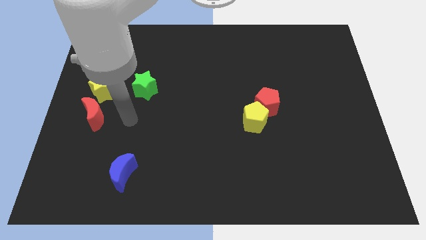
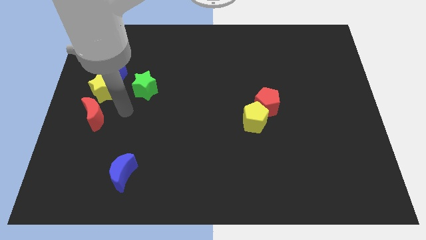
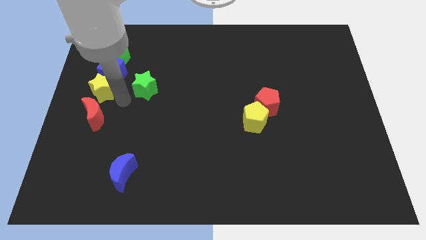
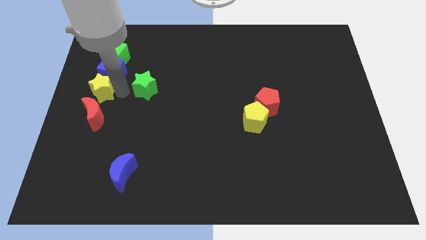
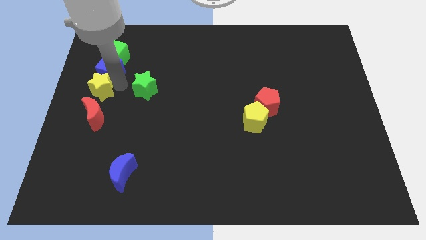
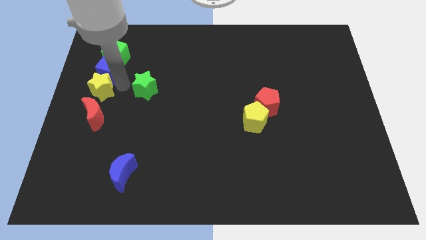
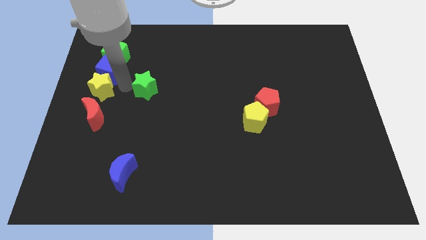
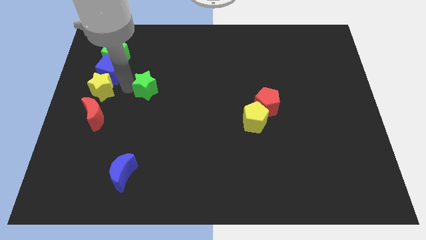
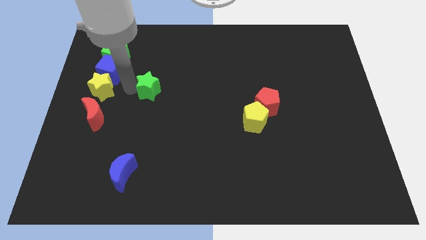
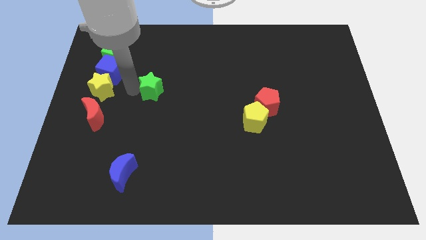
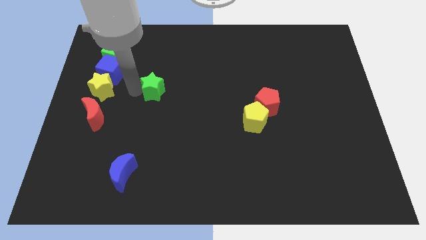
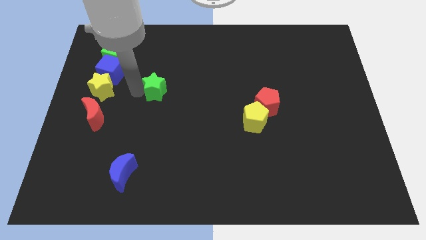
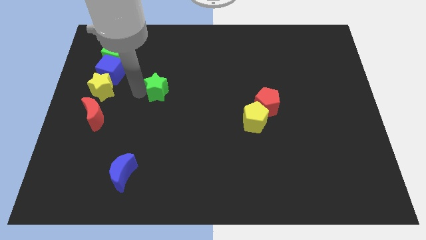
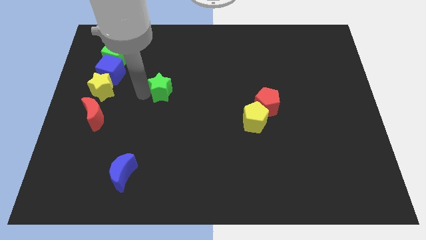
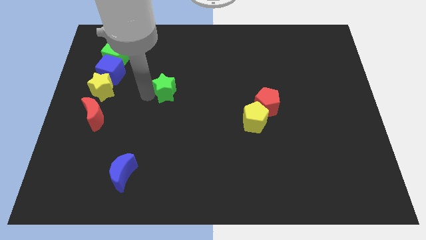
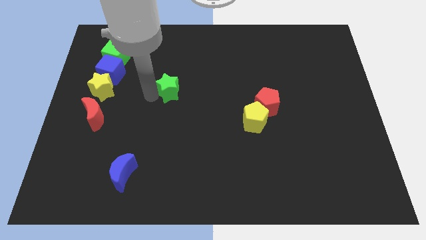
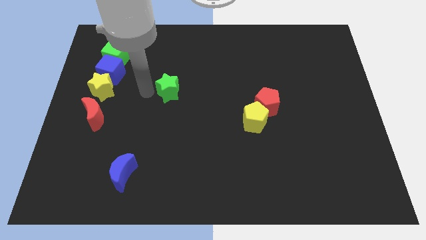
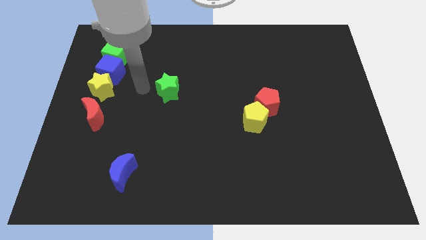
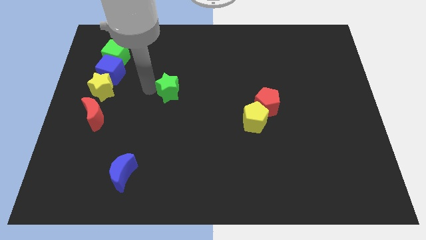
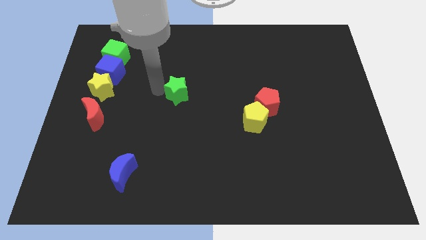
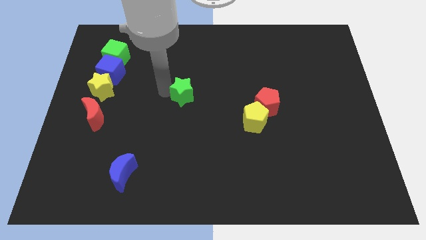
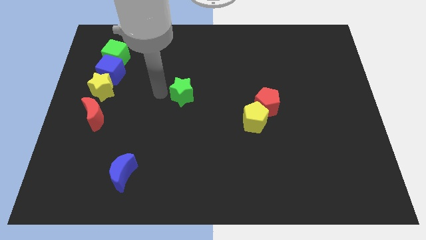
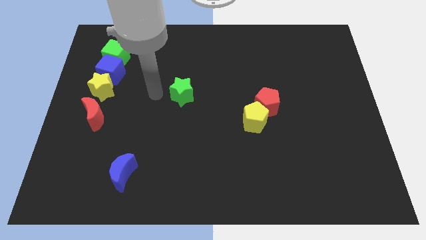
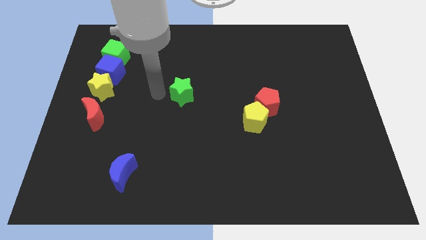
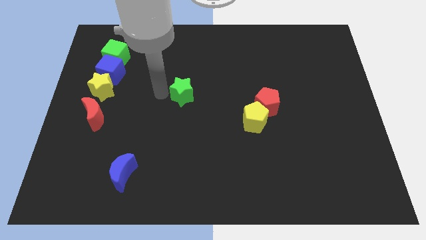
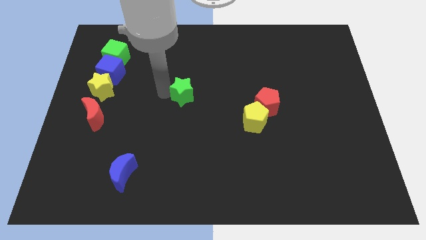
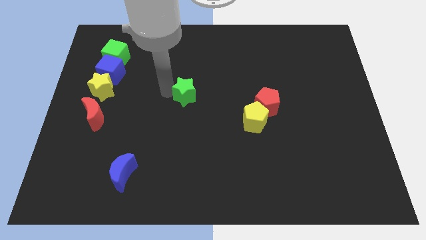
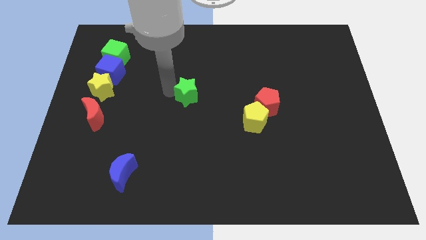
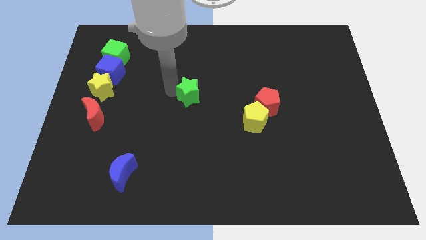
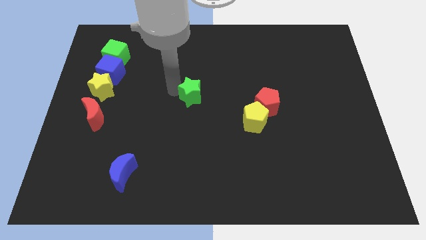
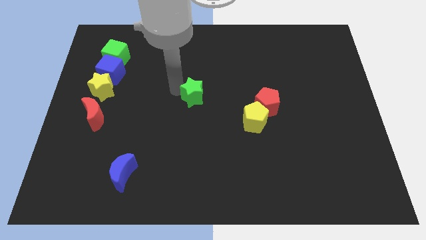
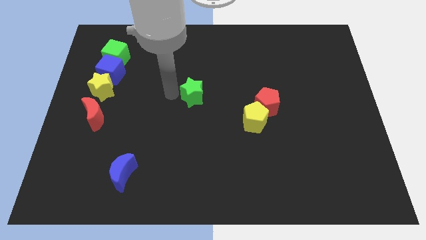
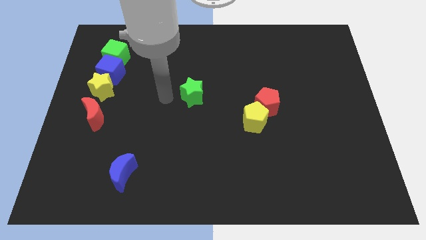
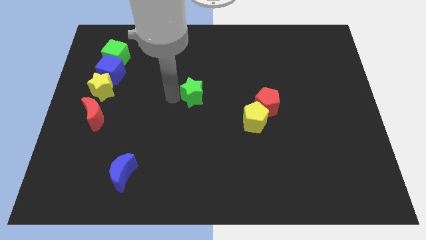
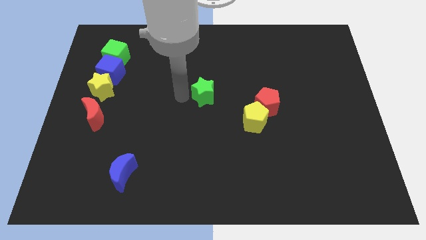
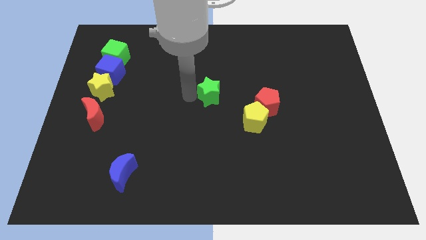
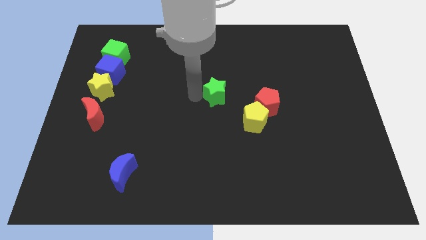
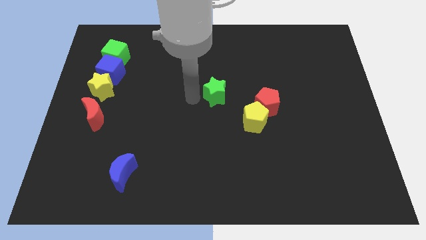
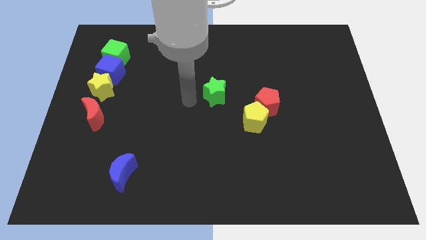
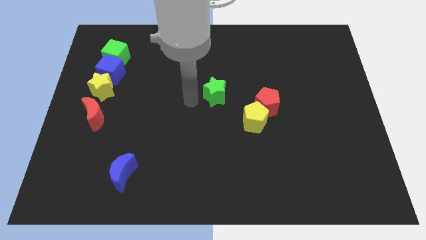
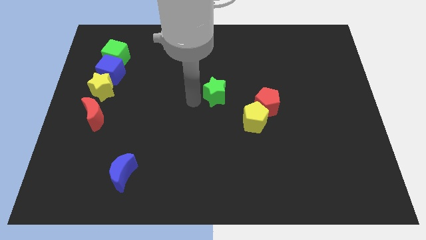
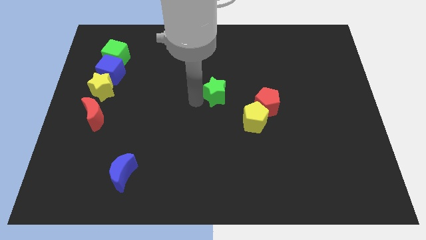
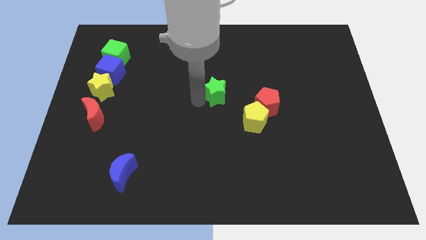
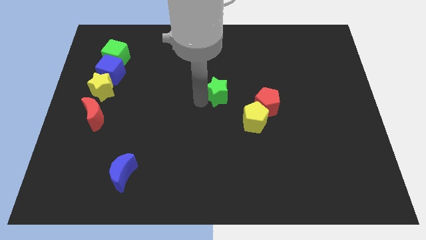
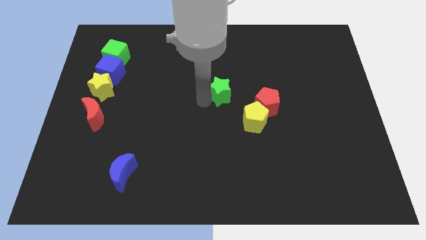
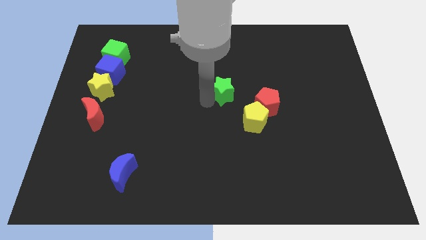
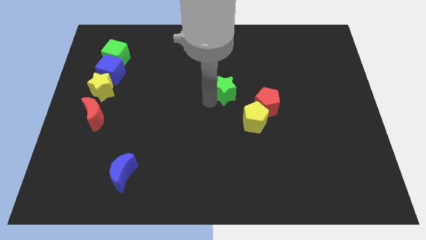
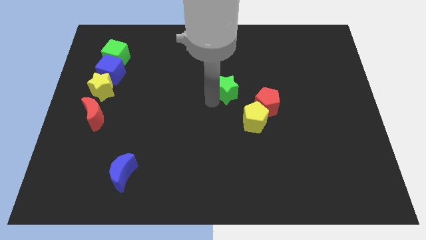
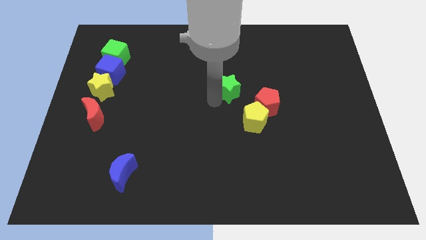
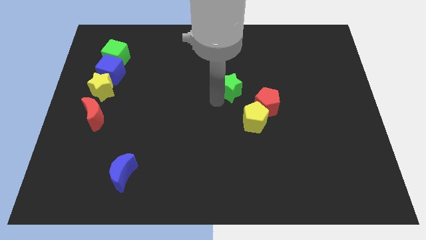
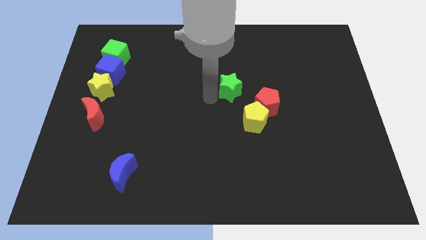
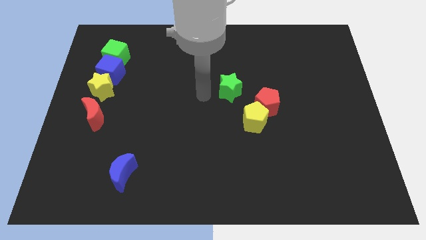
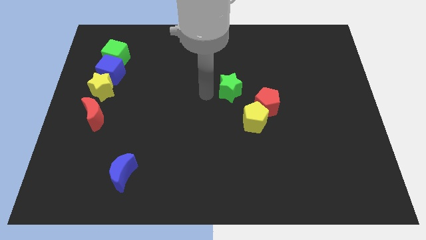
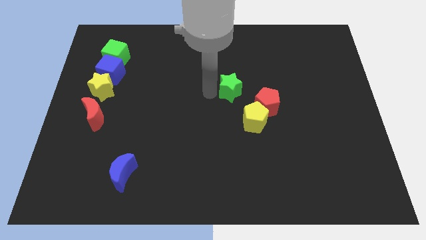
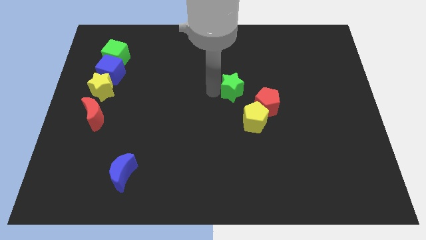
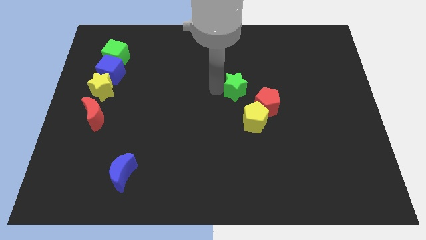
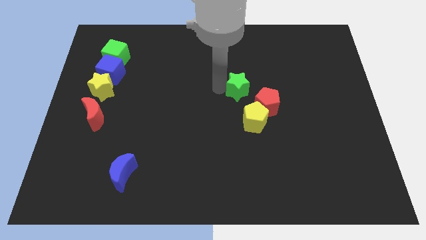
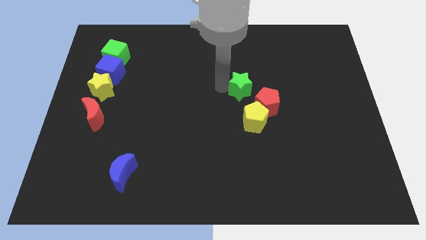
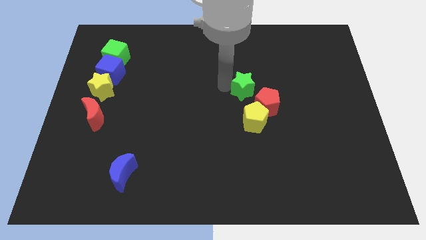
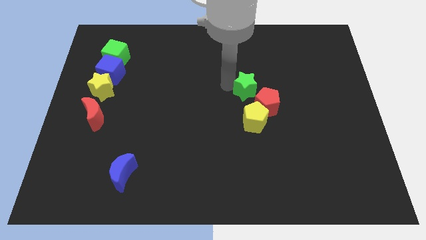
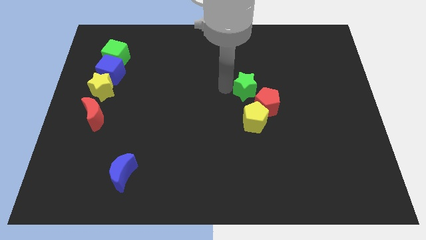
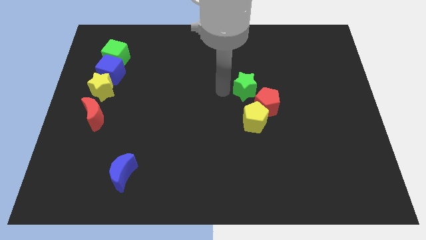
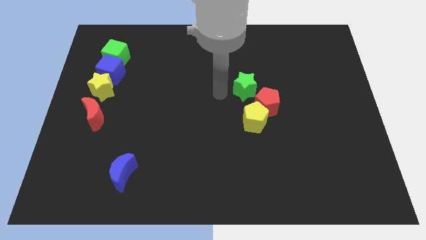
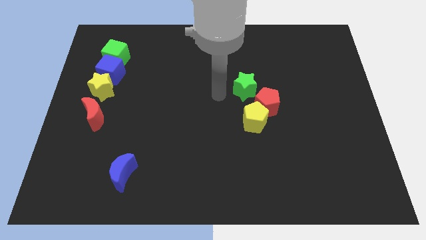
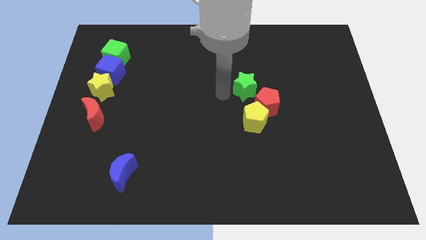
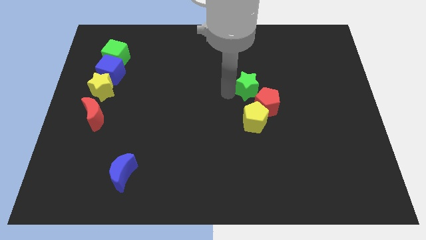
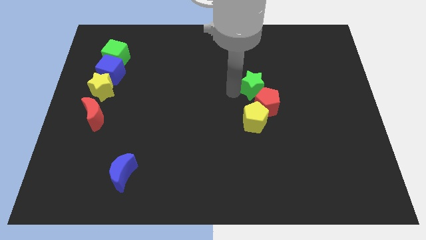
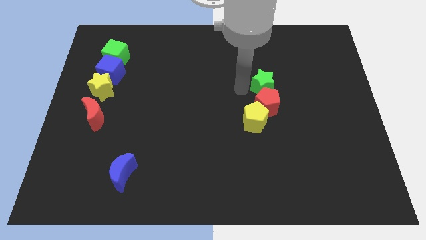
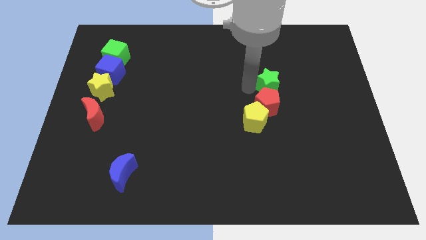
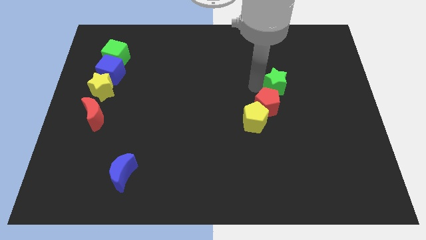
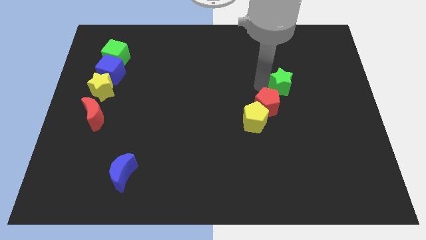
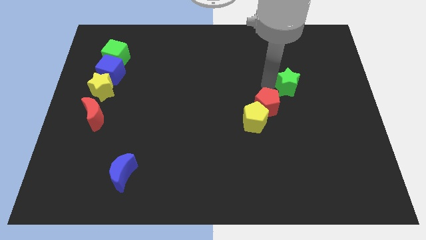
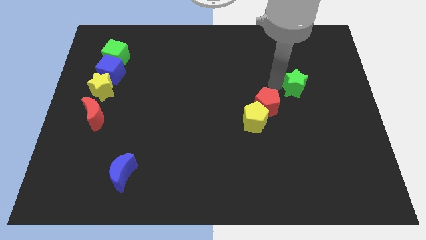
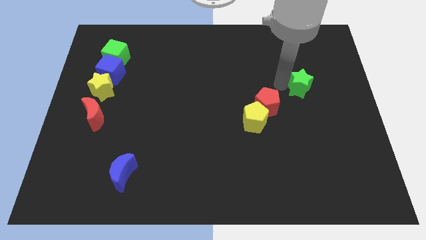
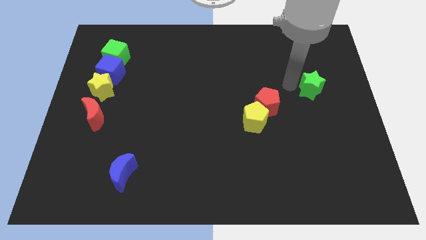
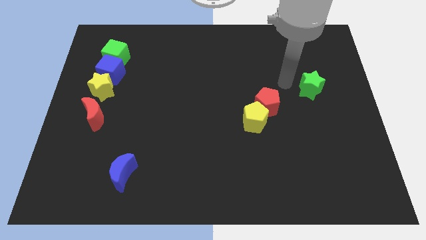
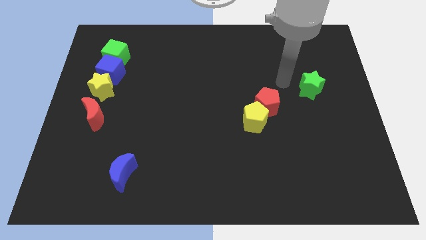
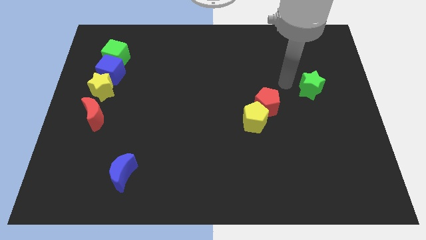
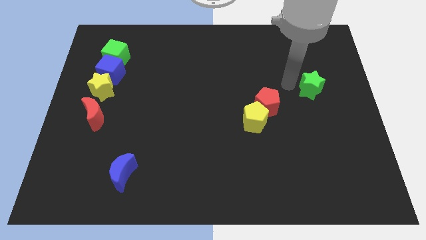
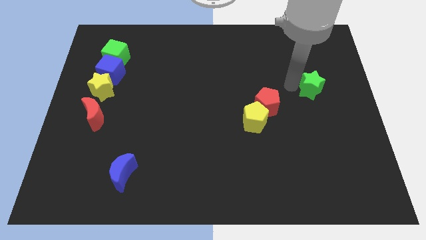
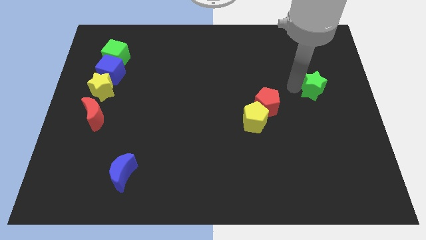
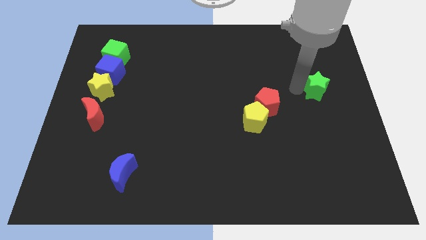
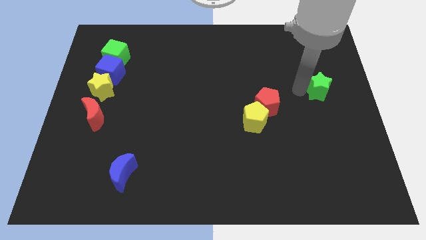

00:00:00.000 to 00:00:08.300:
put the green star to the right side of the board
